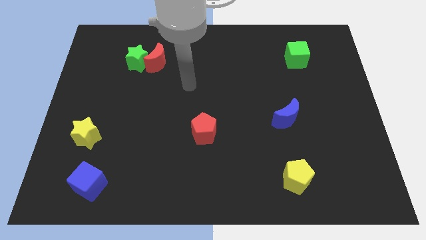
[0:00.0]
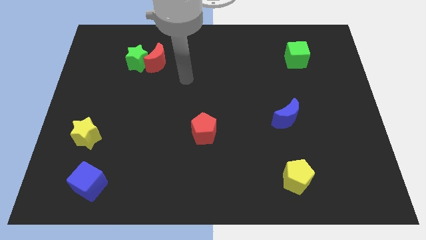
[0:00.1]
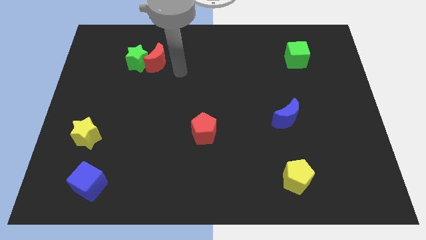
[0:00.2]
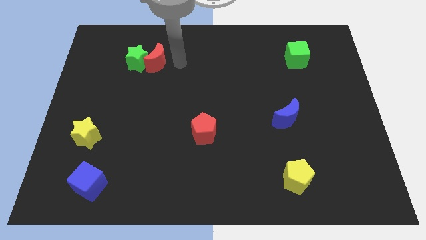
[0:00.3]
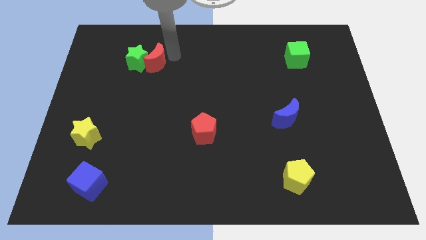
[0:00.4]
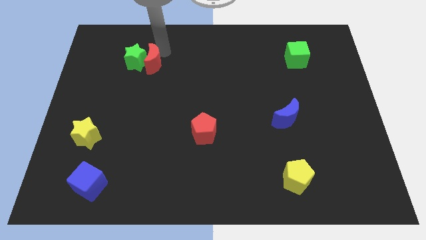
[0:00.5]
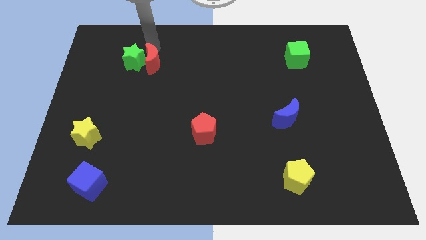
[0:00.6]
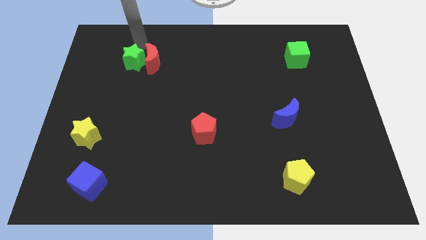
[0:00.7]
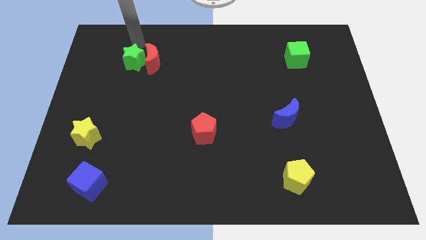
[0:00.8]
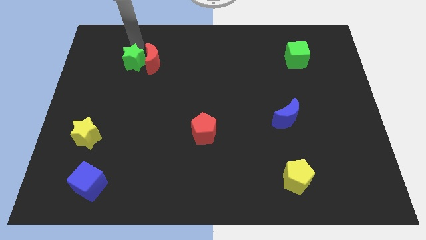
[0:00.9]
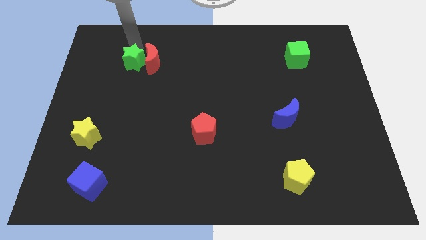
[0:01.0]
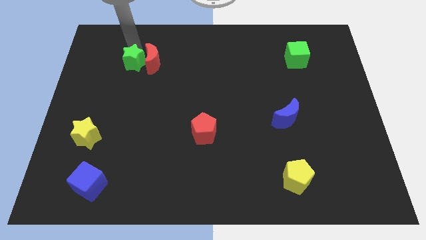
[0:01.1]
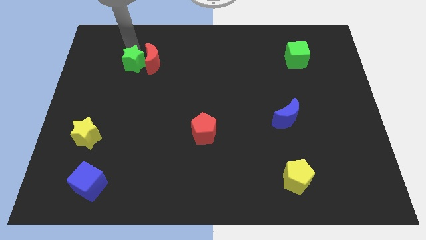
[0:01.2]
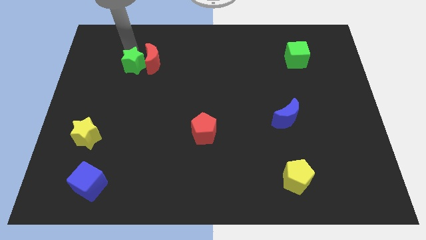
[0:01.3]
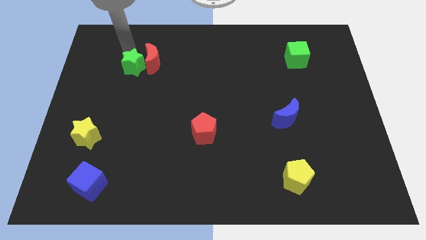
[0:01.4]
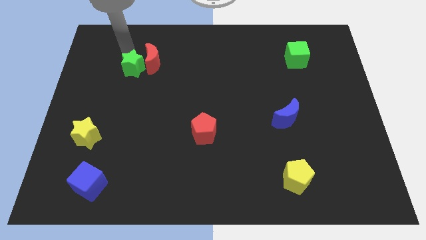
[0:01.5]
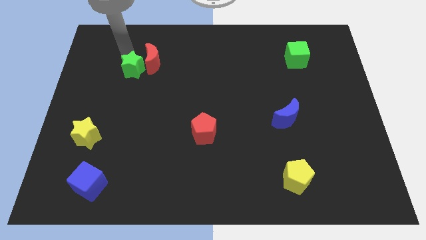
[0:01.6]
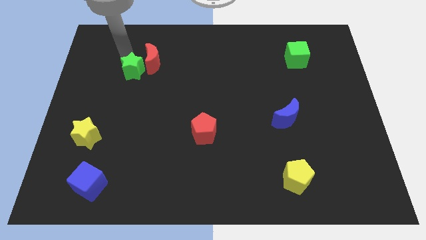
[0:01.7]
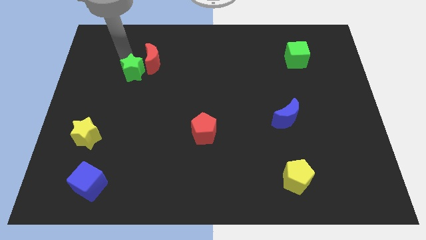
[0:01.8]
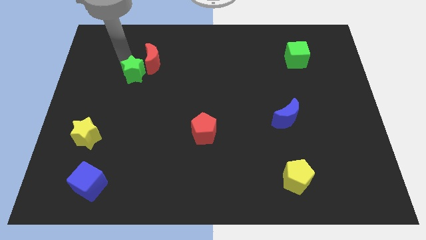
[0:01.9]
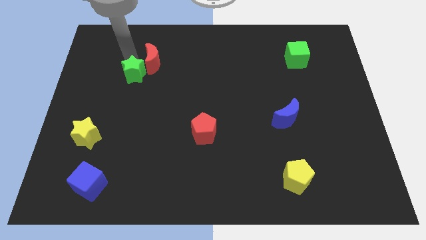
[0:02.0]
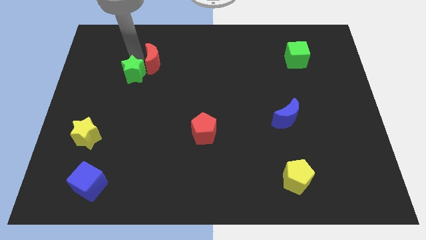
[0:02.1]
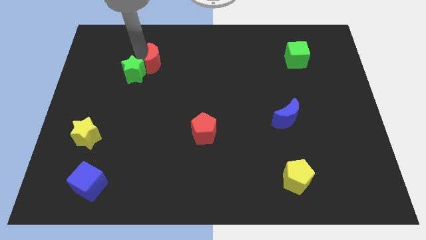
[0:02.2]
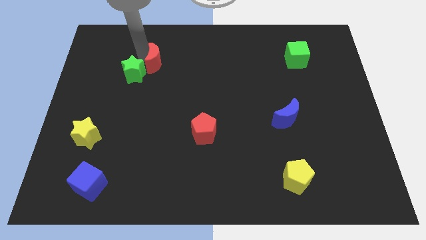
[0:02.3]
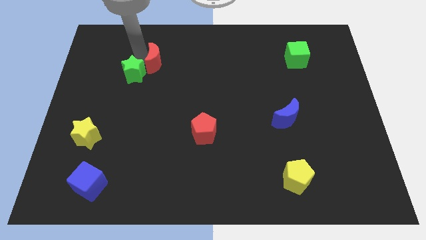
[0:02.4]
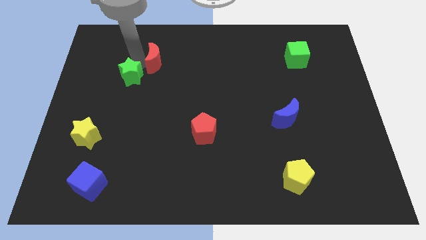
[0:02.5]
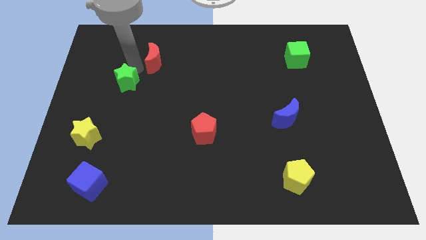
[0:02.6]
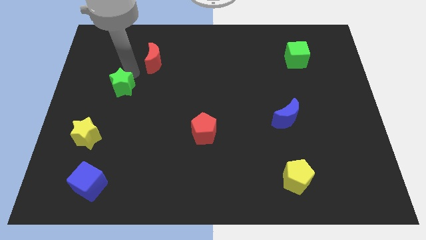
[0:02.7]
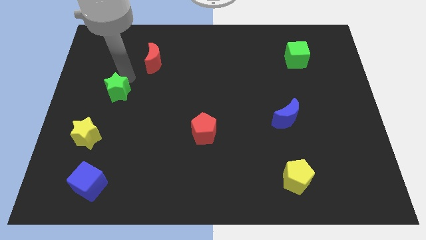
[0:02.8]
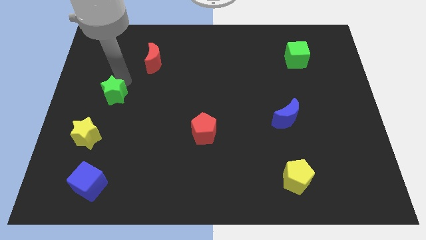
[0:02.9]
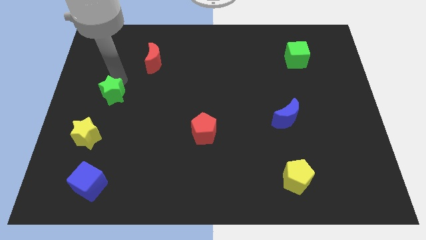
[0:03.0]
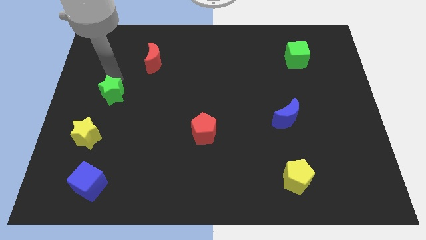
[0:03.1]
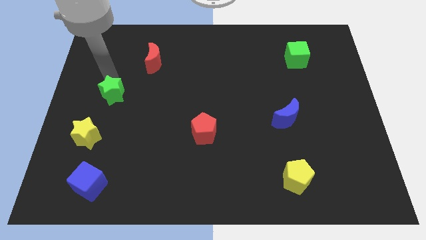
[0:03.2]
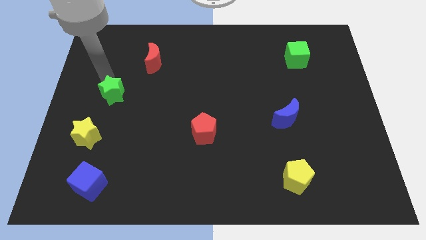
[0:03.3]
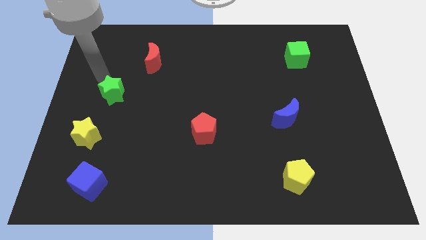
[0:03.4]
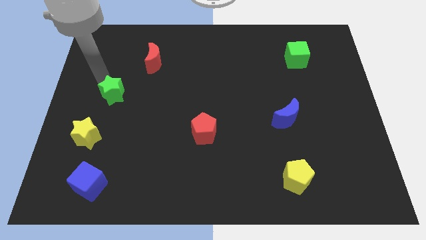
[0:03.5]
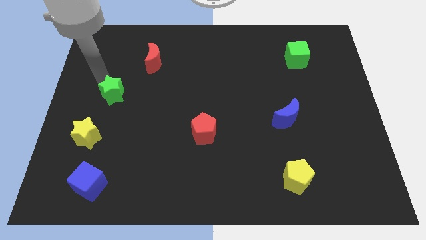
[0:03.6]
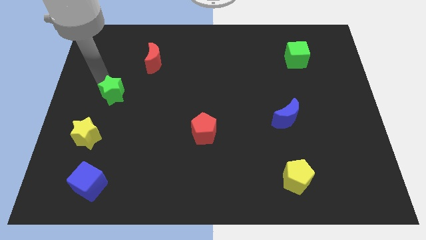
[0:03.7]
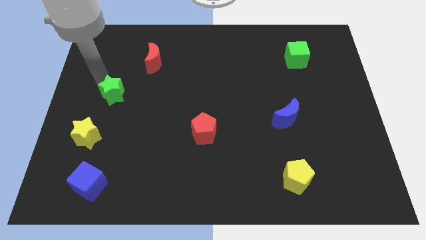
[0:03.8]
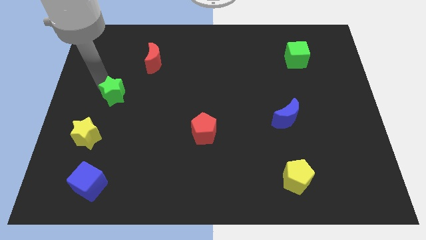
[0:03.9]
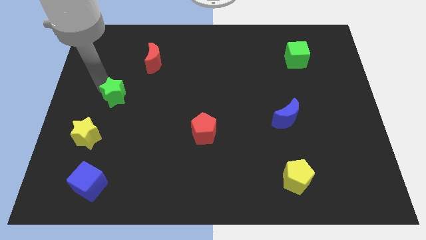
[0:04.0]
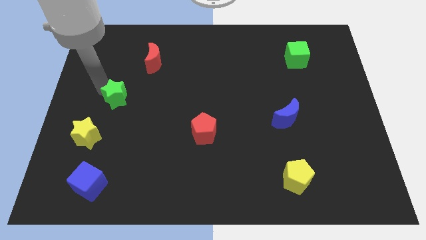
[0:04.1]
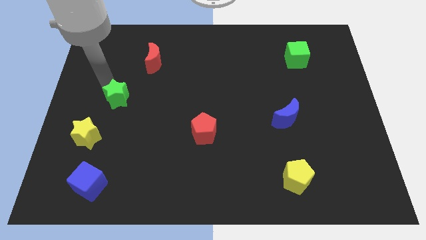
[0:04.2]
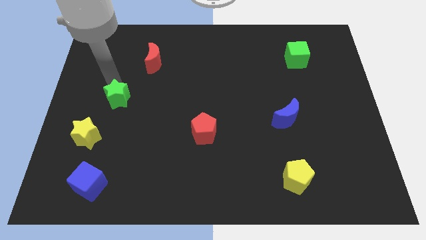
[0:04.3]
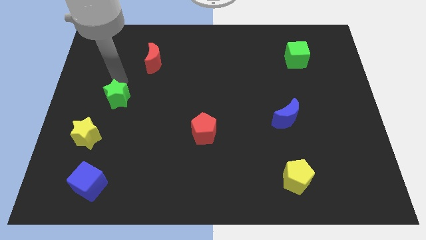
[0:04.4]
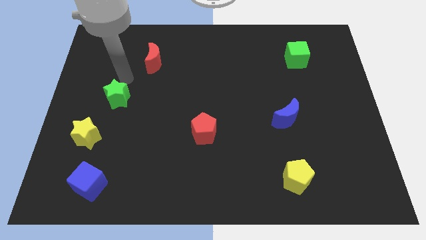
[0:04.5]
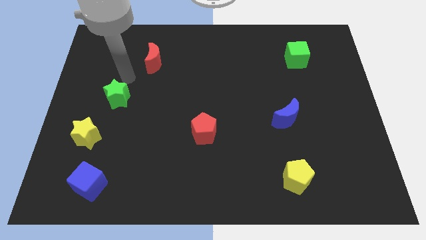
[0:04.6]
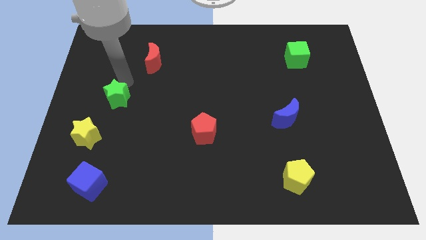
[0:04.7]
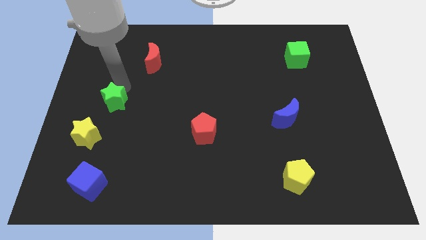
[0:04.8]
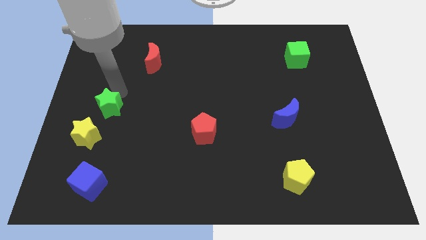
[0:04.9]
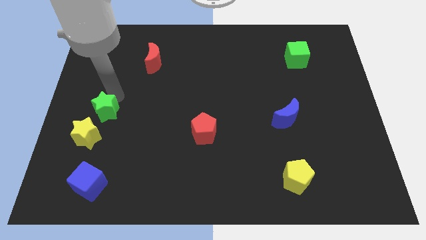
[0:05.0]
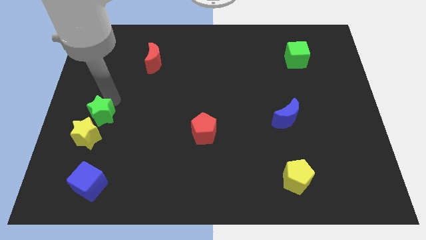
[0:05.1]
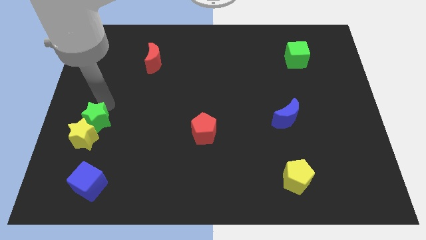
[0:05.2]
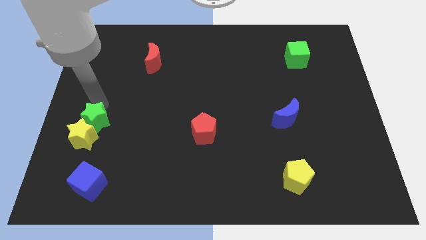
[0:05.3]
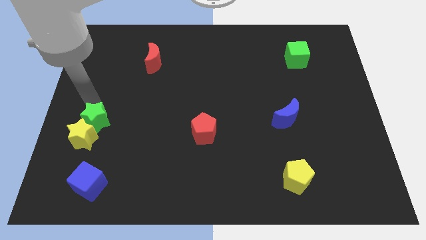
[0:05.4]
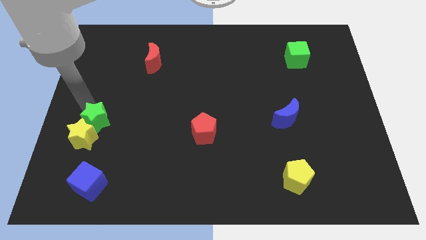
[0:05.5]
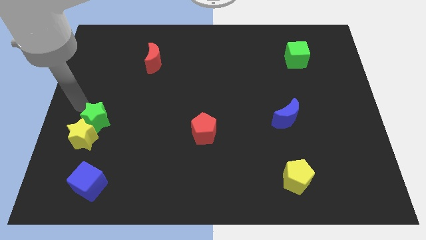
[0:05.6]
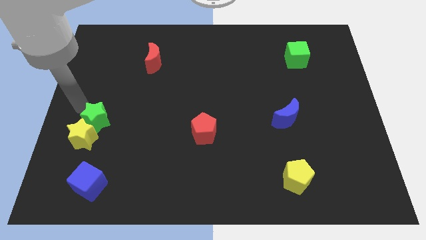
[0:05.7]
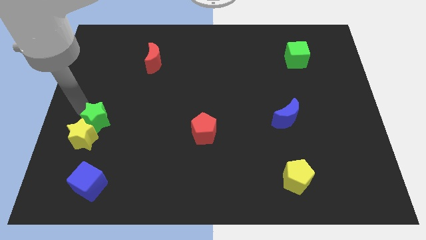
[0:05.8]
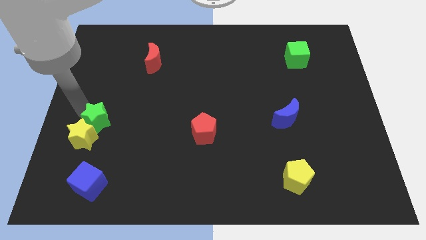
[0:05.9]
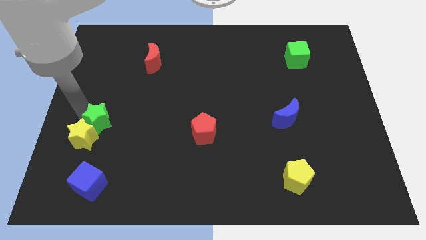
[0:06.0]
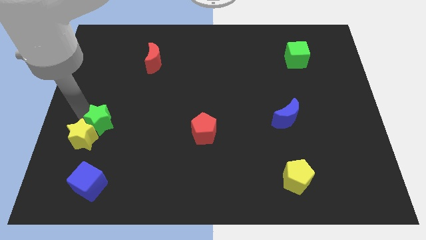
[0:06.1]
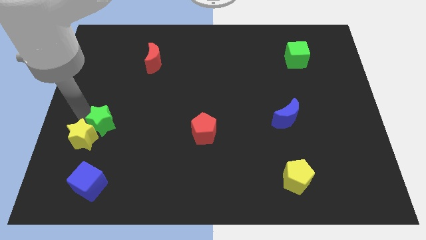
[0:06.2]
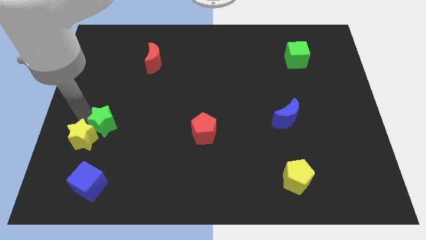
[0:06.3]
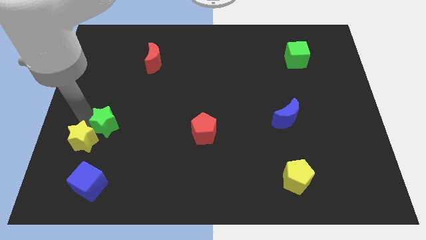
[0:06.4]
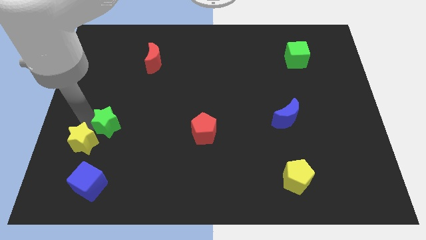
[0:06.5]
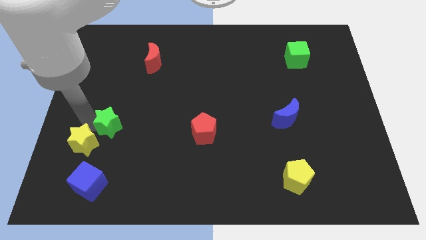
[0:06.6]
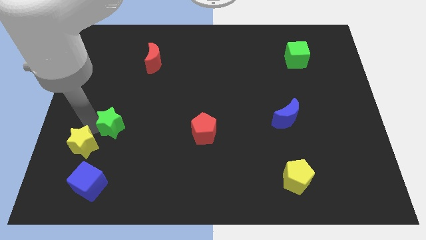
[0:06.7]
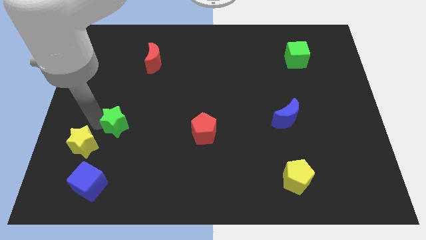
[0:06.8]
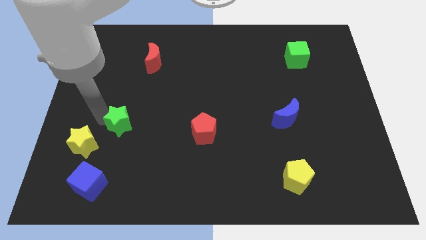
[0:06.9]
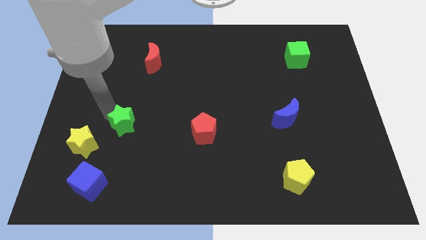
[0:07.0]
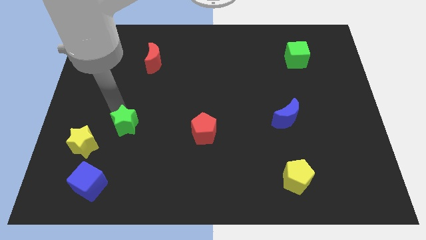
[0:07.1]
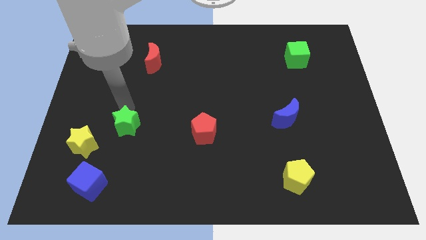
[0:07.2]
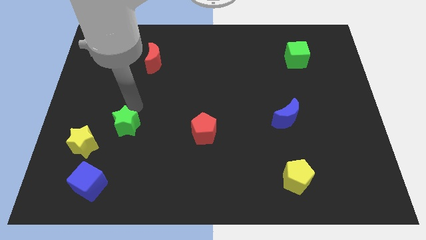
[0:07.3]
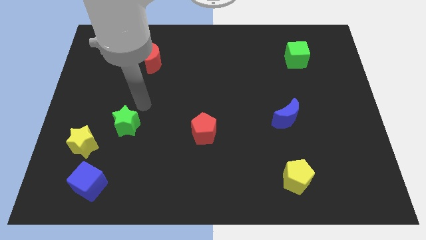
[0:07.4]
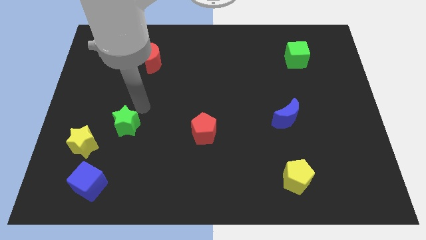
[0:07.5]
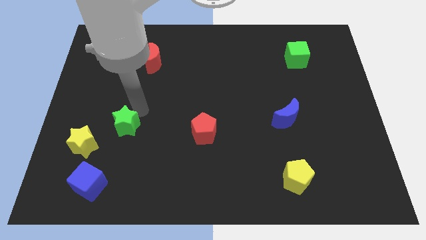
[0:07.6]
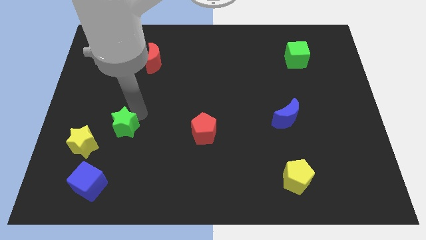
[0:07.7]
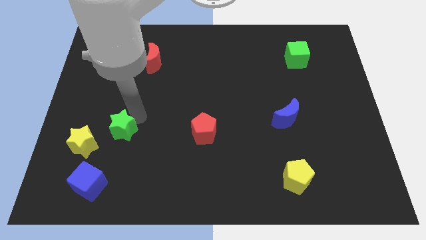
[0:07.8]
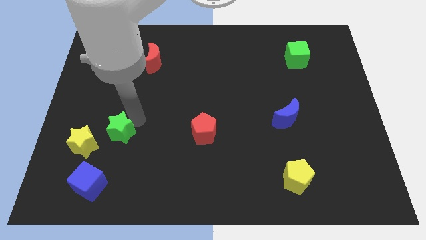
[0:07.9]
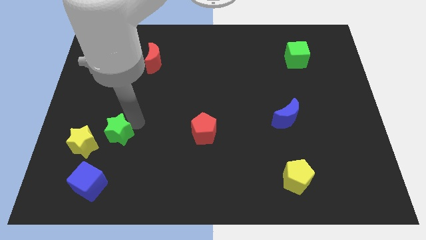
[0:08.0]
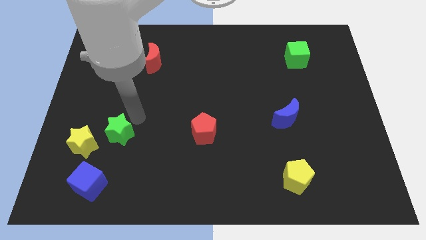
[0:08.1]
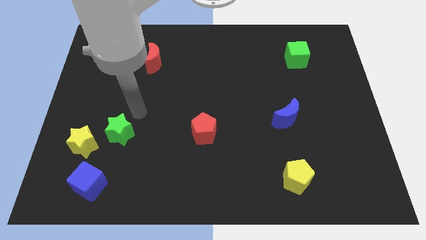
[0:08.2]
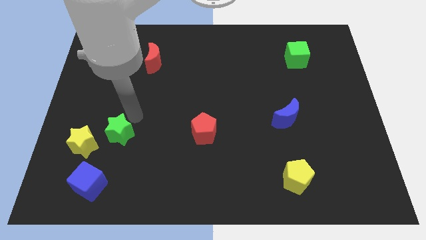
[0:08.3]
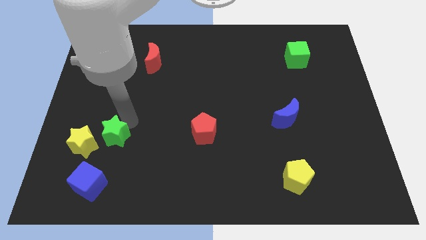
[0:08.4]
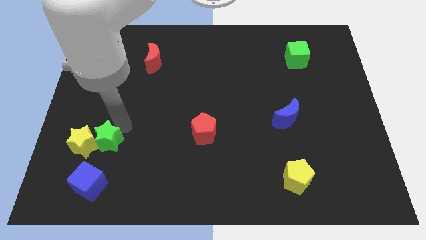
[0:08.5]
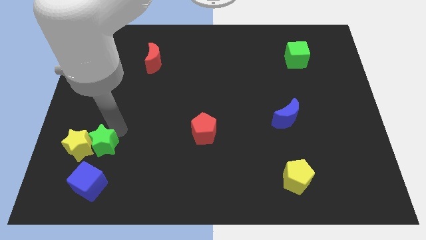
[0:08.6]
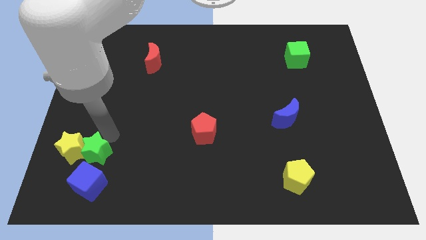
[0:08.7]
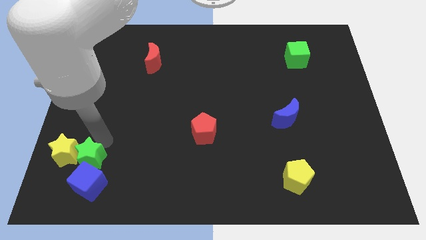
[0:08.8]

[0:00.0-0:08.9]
slide the green star next to the blue cube
